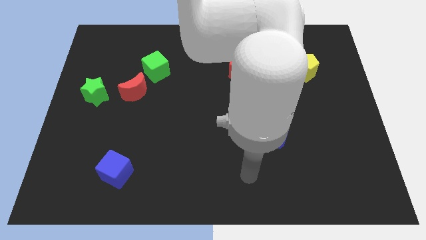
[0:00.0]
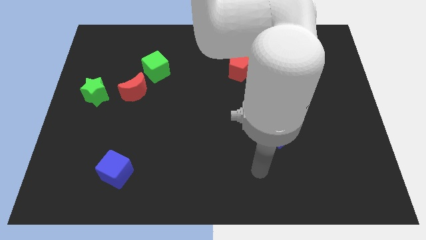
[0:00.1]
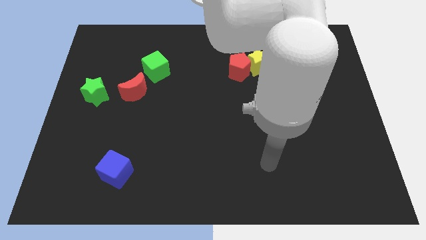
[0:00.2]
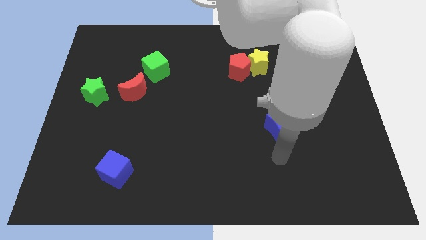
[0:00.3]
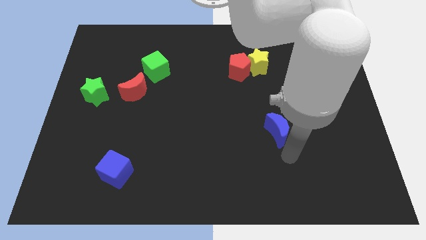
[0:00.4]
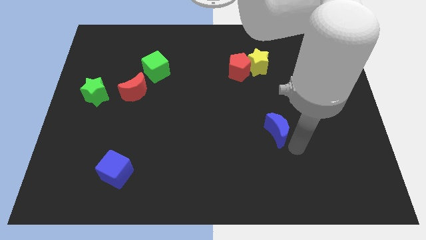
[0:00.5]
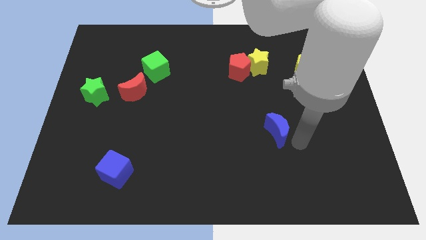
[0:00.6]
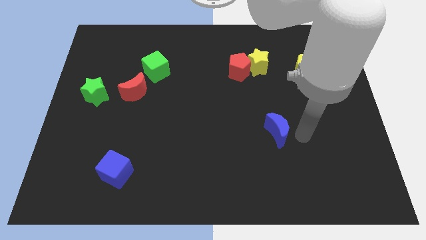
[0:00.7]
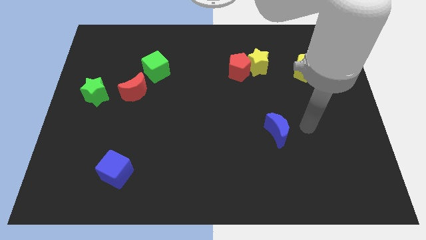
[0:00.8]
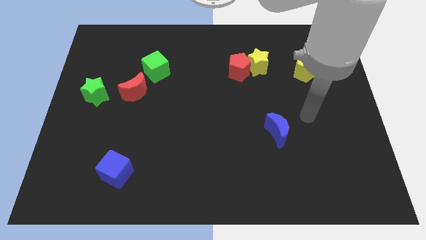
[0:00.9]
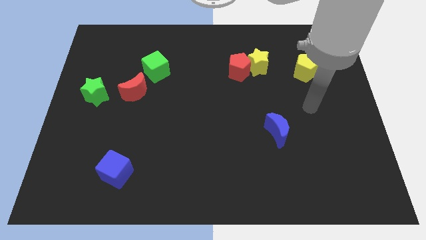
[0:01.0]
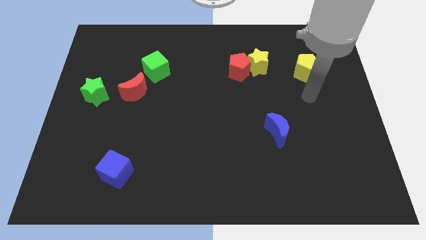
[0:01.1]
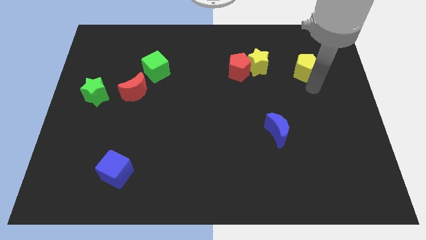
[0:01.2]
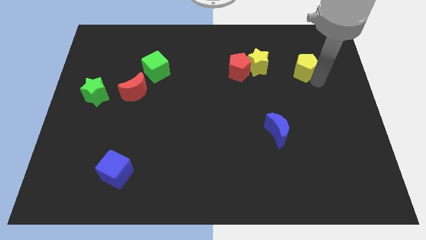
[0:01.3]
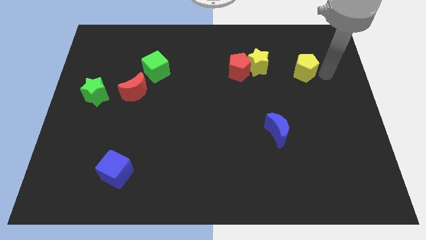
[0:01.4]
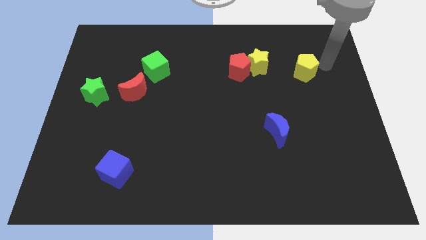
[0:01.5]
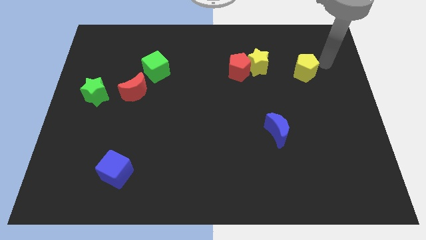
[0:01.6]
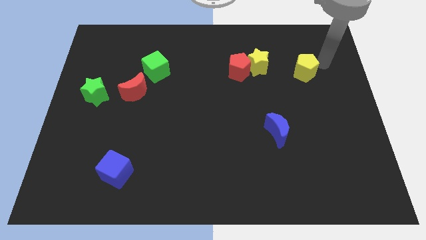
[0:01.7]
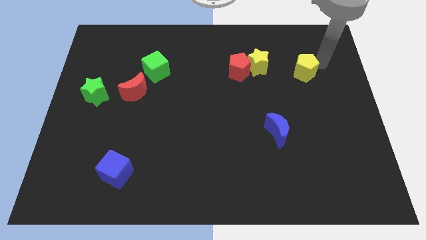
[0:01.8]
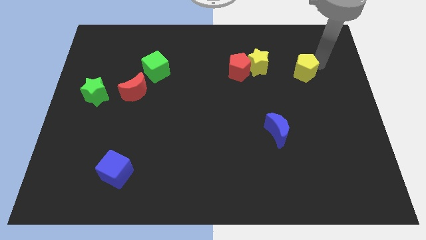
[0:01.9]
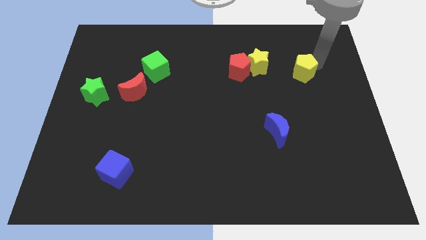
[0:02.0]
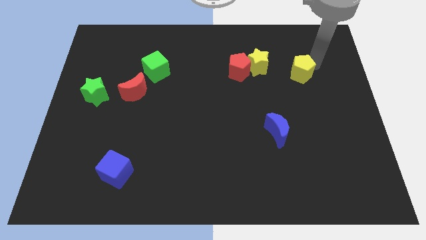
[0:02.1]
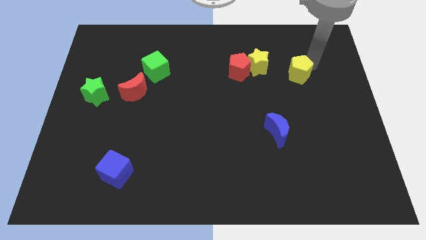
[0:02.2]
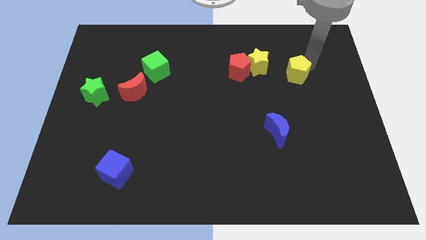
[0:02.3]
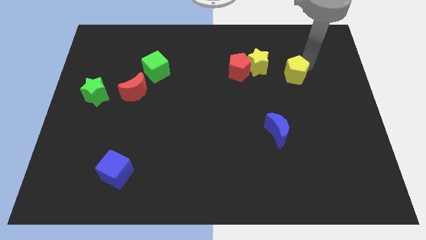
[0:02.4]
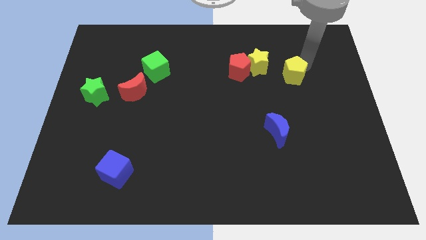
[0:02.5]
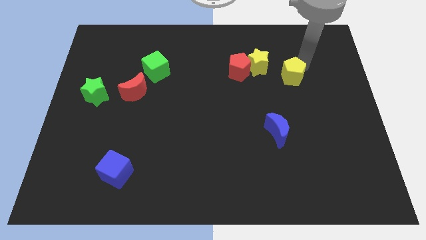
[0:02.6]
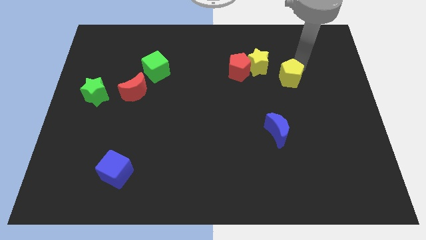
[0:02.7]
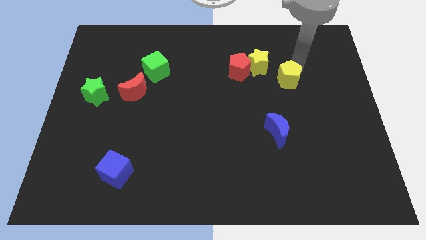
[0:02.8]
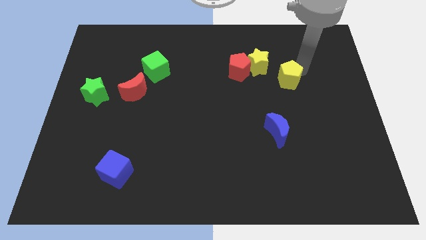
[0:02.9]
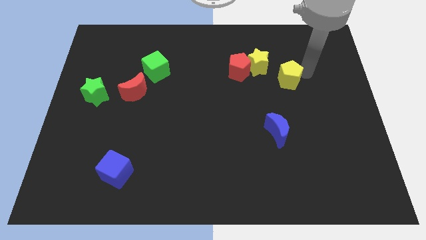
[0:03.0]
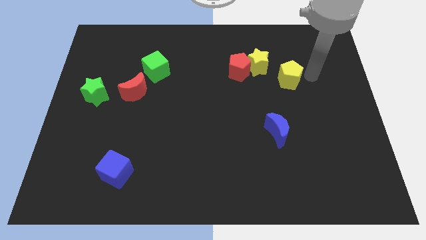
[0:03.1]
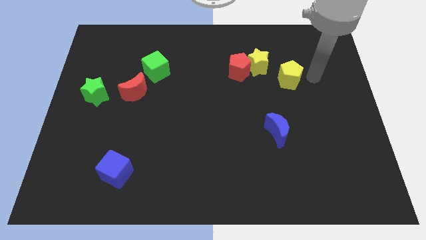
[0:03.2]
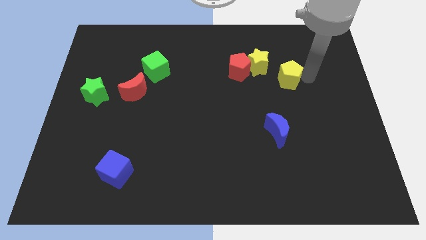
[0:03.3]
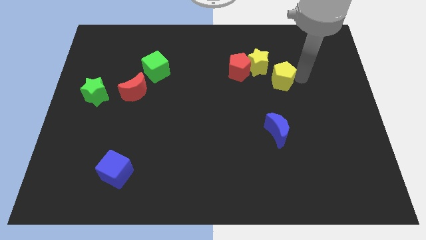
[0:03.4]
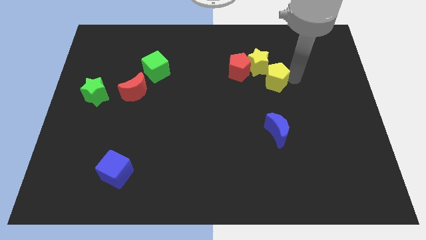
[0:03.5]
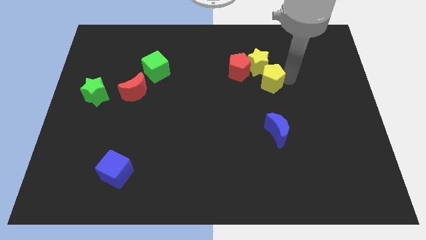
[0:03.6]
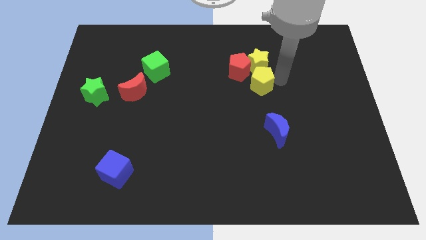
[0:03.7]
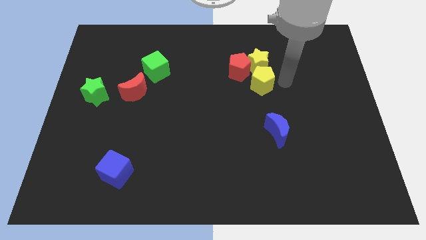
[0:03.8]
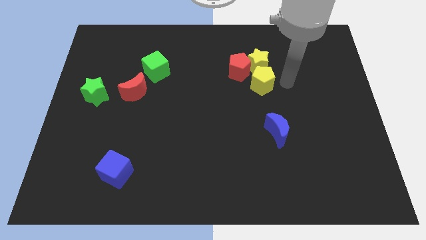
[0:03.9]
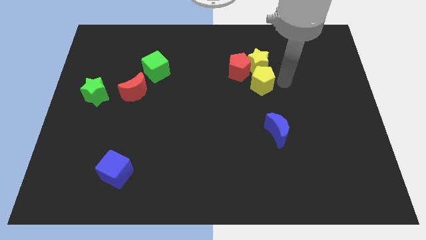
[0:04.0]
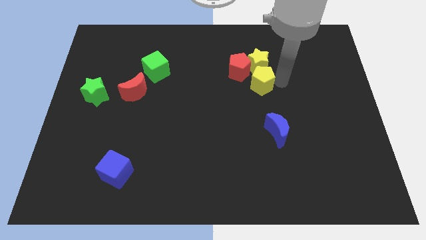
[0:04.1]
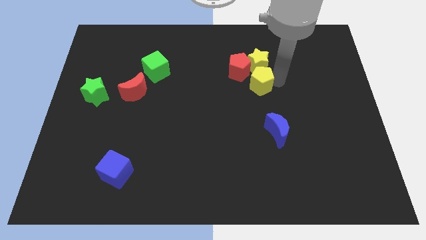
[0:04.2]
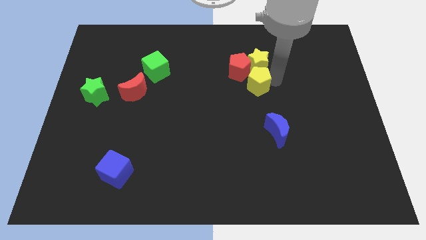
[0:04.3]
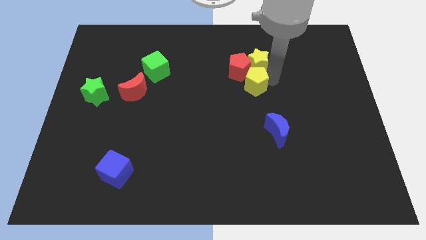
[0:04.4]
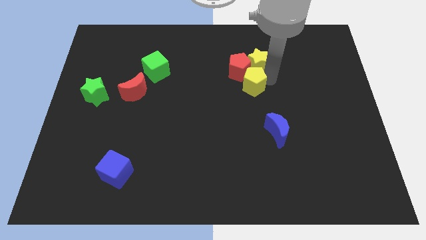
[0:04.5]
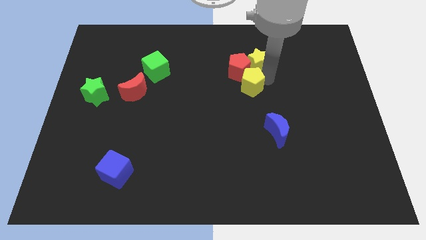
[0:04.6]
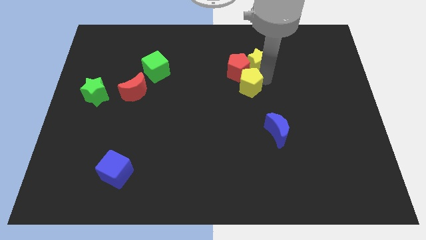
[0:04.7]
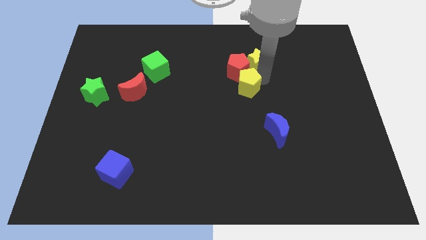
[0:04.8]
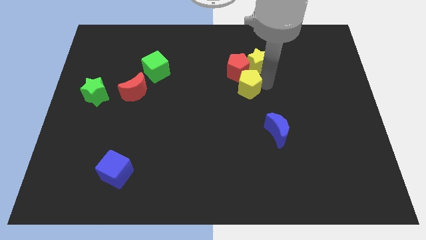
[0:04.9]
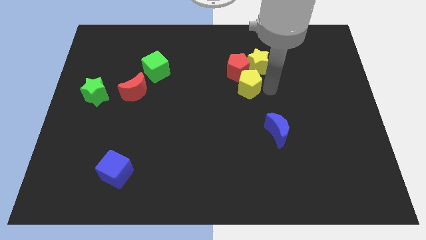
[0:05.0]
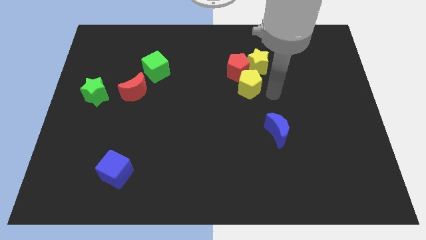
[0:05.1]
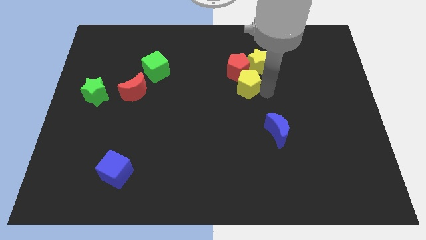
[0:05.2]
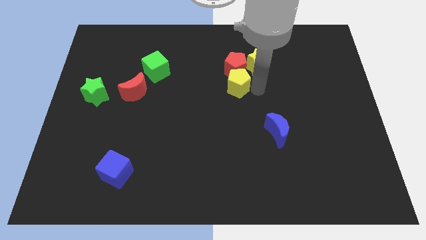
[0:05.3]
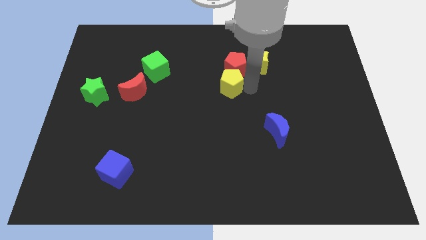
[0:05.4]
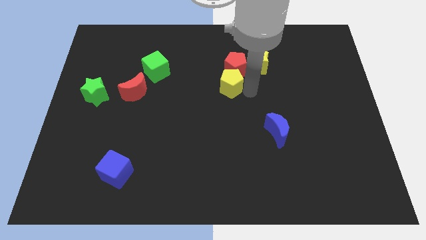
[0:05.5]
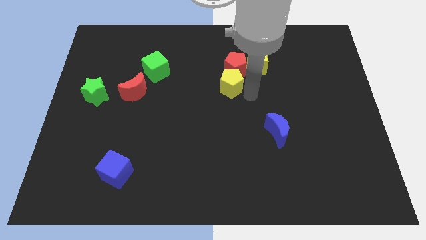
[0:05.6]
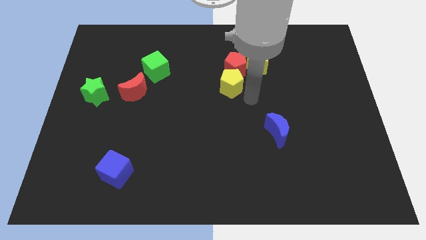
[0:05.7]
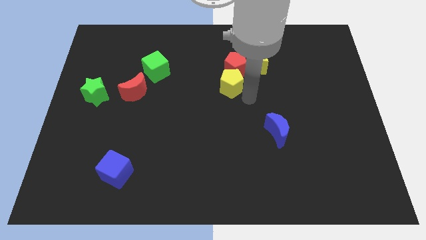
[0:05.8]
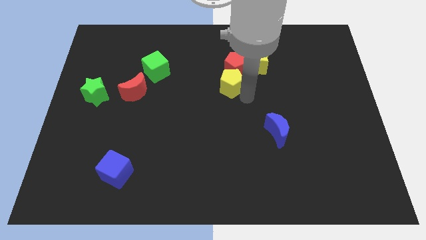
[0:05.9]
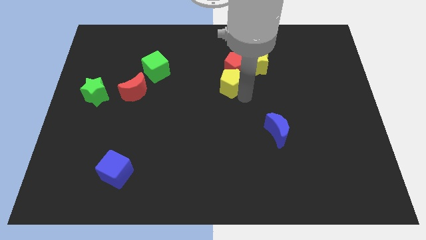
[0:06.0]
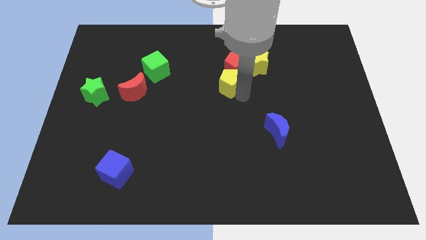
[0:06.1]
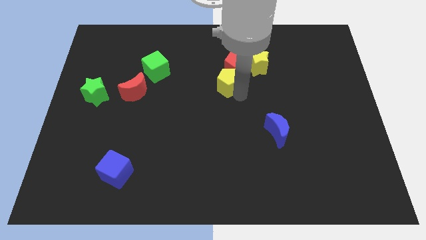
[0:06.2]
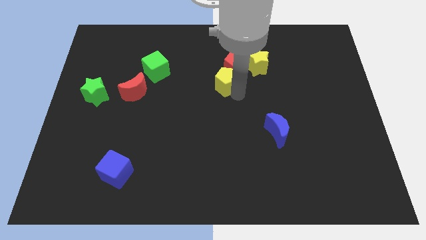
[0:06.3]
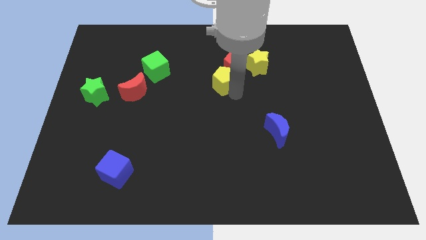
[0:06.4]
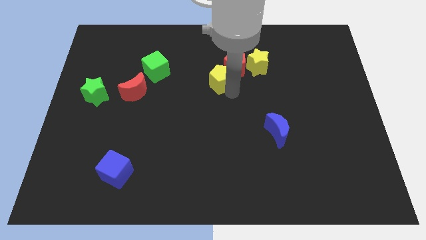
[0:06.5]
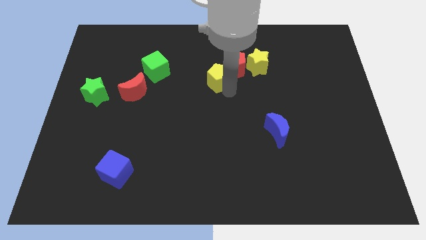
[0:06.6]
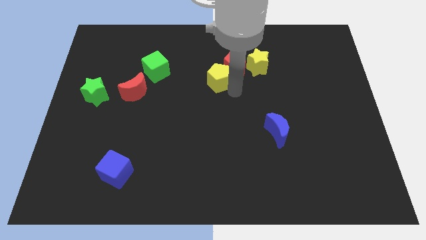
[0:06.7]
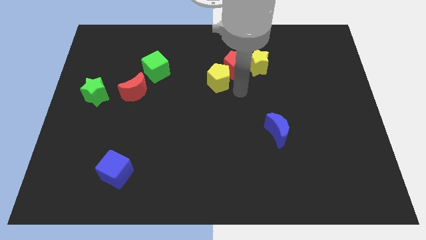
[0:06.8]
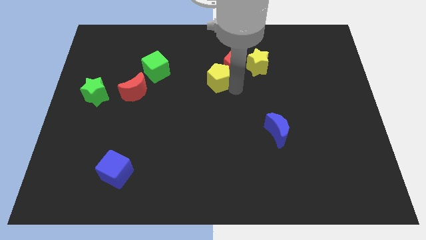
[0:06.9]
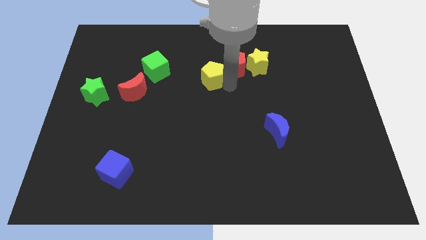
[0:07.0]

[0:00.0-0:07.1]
put the yellow pentagon to the right of the green cube
